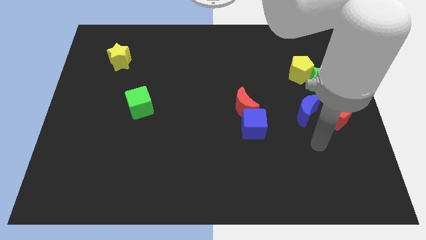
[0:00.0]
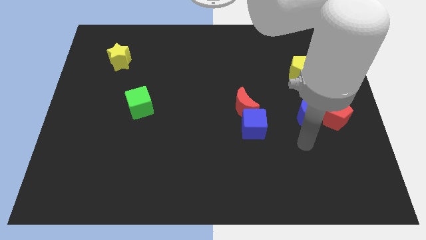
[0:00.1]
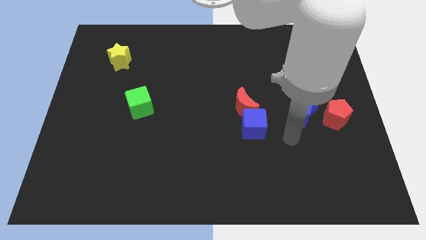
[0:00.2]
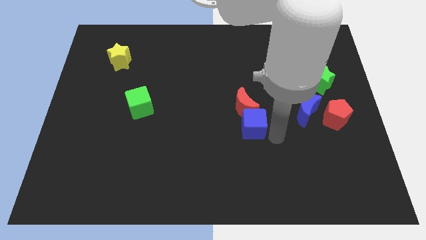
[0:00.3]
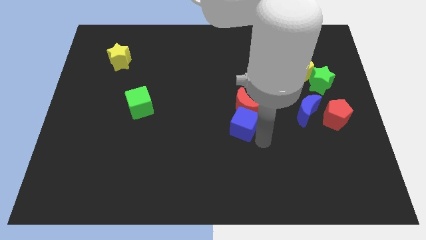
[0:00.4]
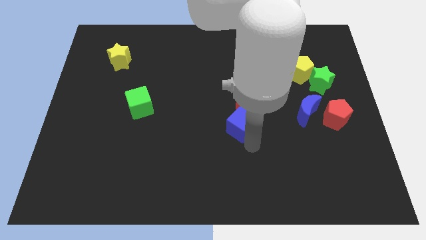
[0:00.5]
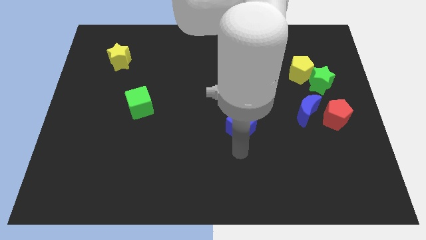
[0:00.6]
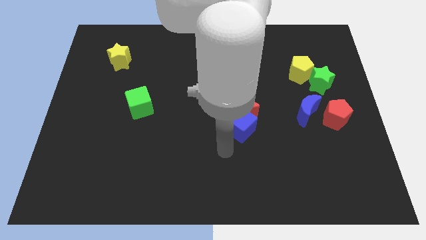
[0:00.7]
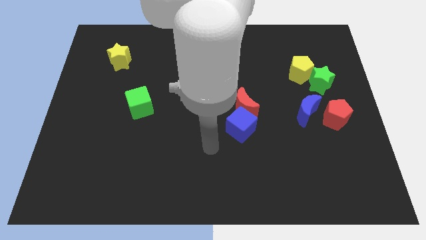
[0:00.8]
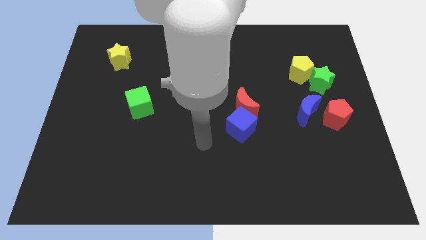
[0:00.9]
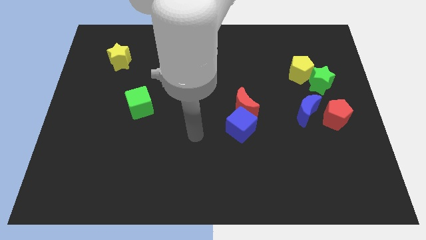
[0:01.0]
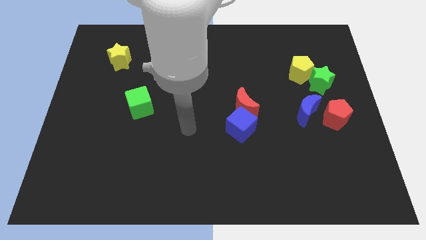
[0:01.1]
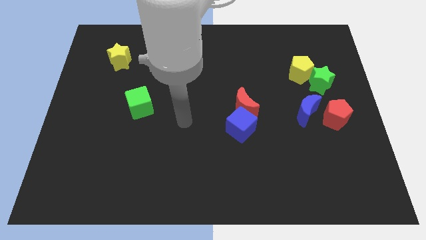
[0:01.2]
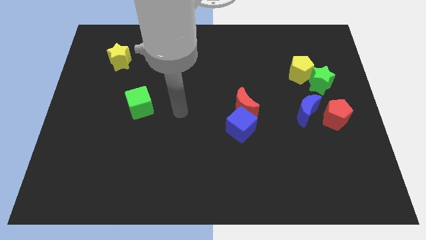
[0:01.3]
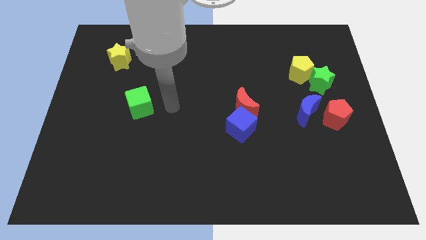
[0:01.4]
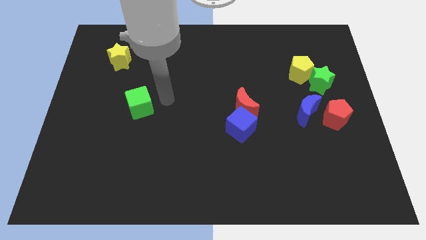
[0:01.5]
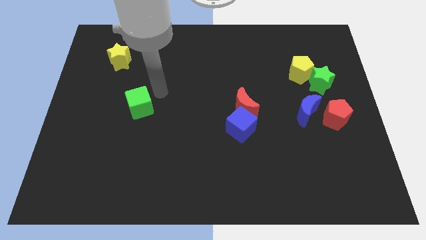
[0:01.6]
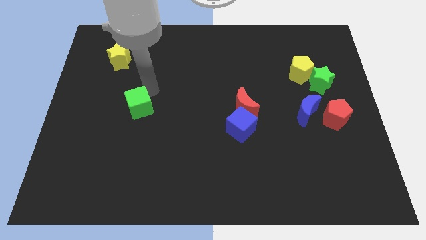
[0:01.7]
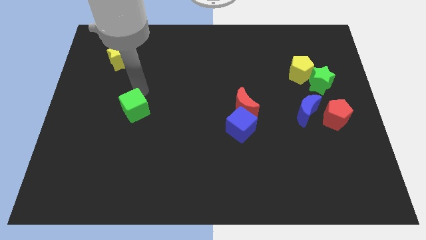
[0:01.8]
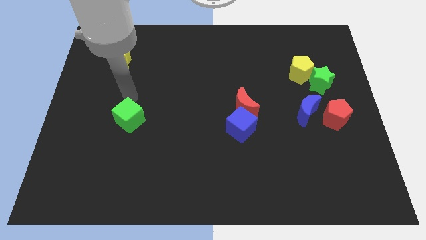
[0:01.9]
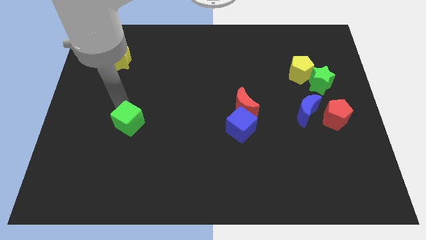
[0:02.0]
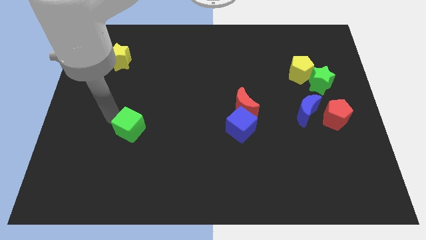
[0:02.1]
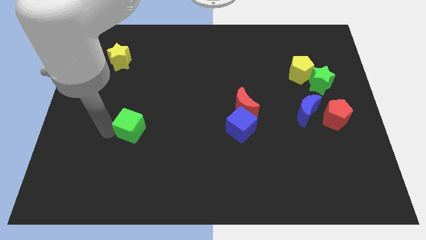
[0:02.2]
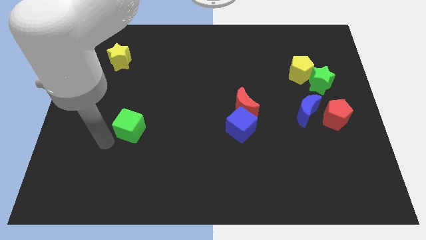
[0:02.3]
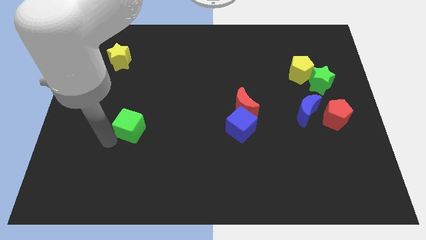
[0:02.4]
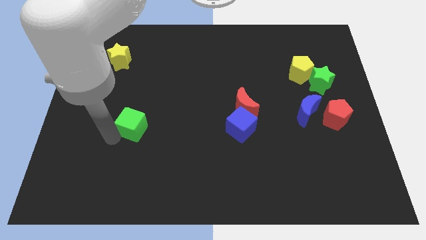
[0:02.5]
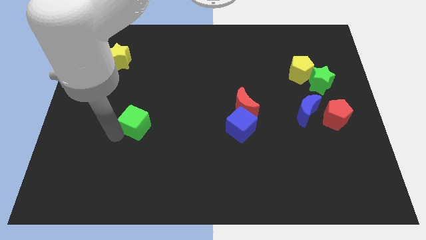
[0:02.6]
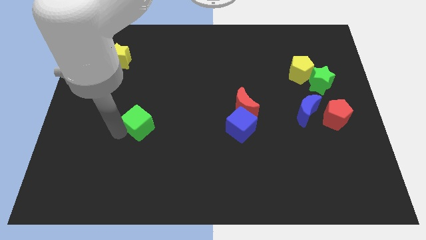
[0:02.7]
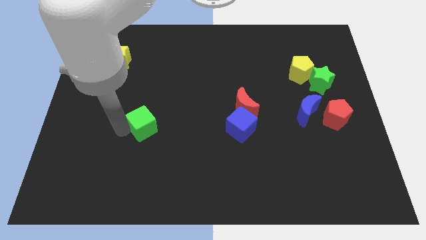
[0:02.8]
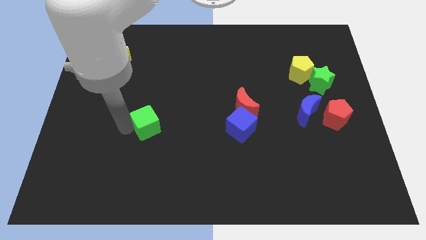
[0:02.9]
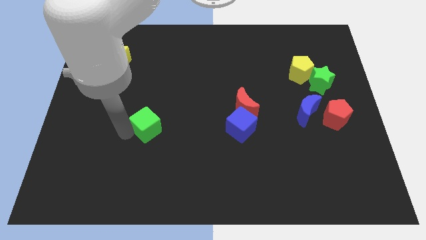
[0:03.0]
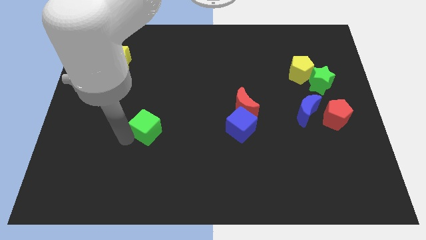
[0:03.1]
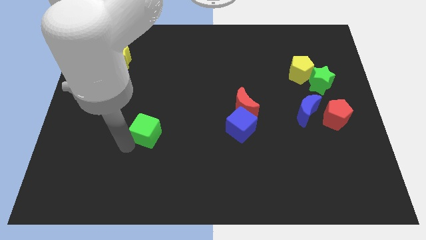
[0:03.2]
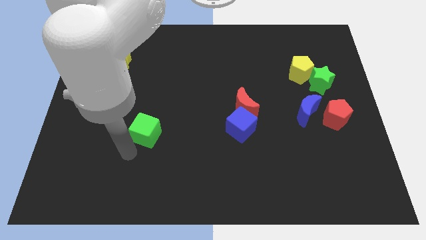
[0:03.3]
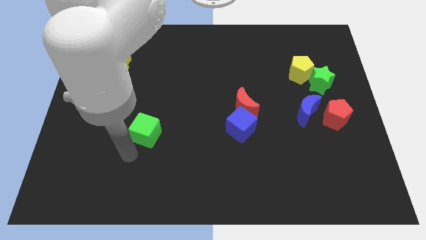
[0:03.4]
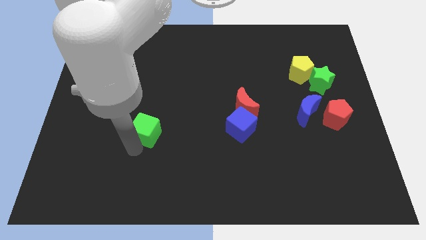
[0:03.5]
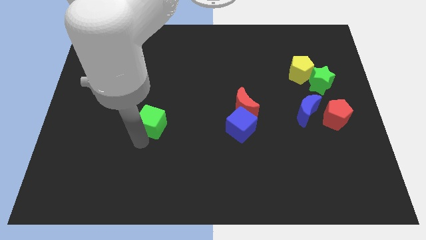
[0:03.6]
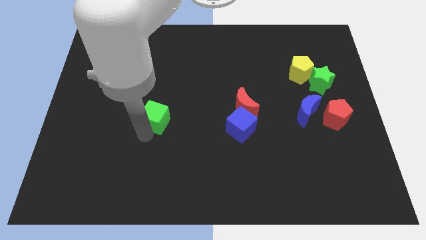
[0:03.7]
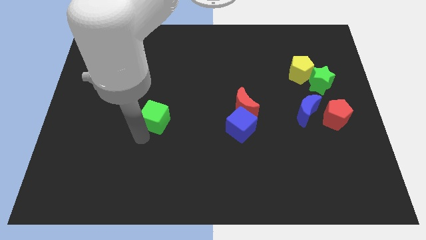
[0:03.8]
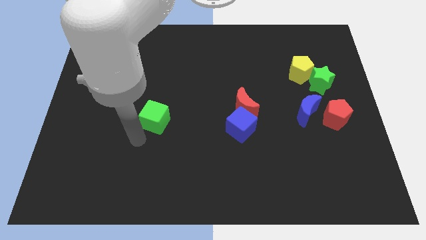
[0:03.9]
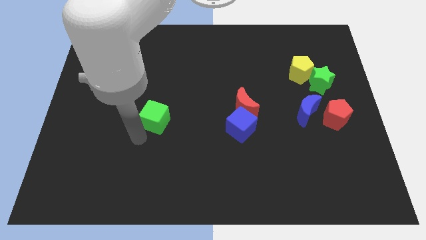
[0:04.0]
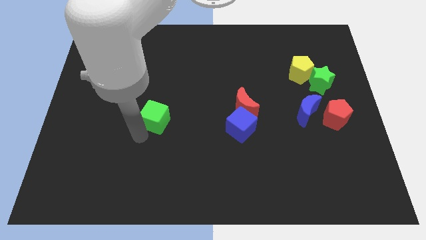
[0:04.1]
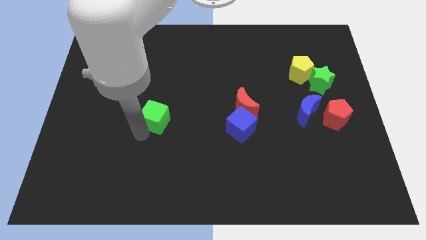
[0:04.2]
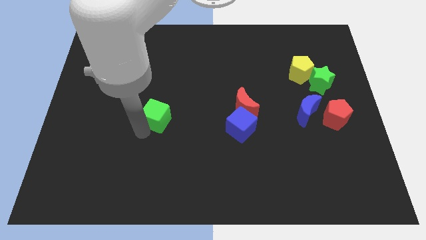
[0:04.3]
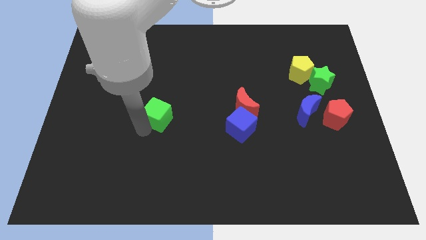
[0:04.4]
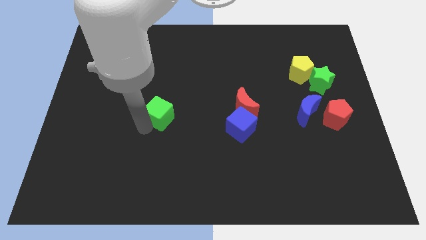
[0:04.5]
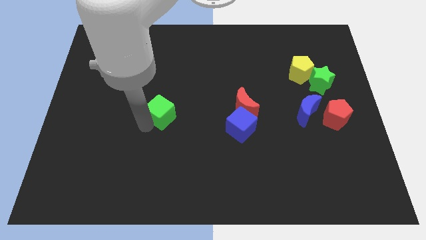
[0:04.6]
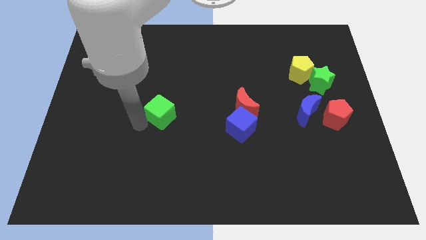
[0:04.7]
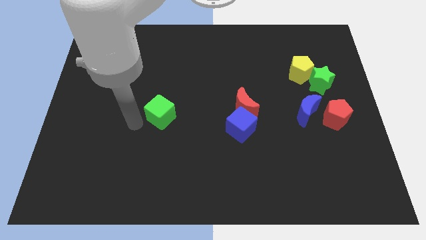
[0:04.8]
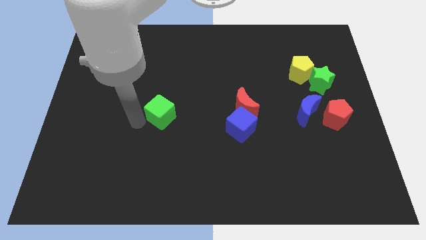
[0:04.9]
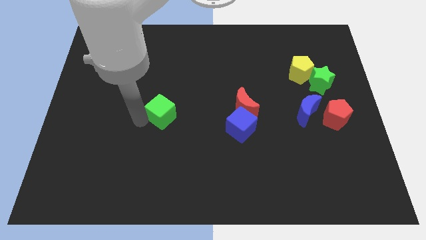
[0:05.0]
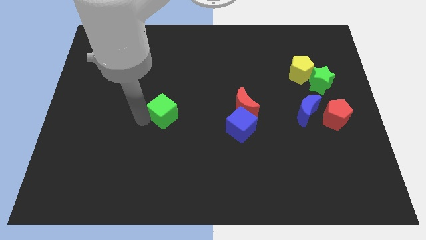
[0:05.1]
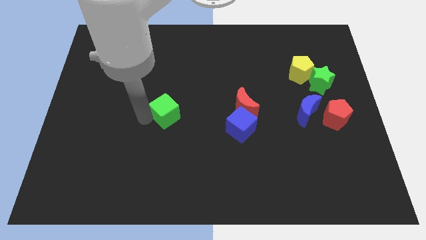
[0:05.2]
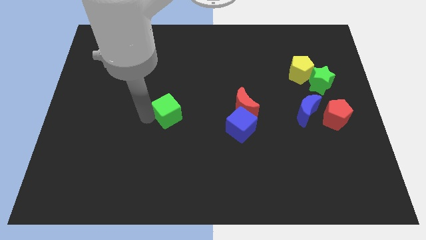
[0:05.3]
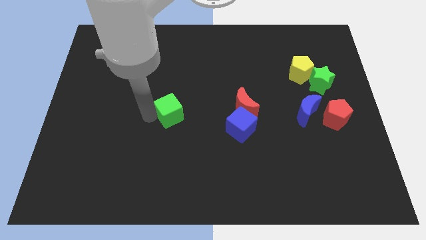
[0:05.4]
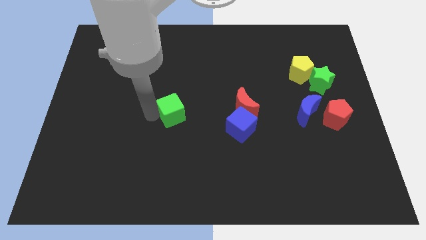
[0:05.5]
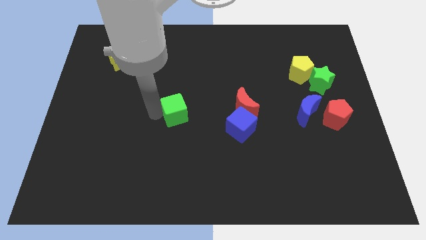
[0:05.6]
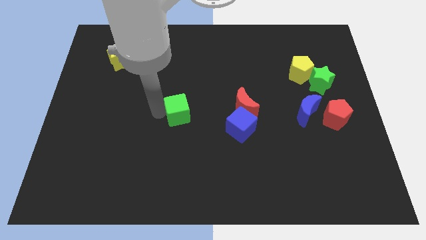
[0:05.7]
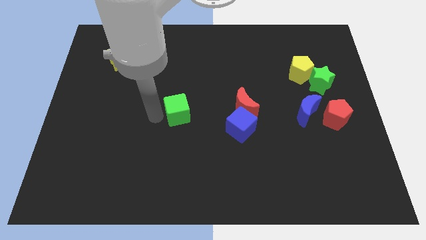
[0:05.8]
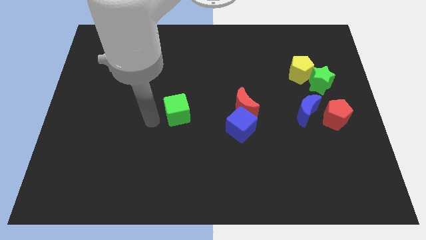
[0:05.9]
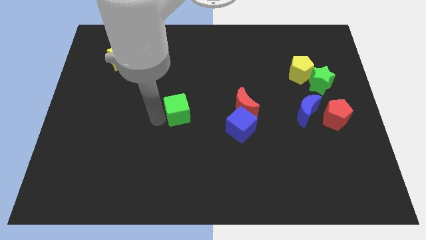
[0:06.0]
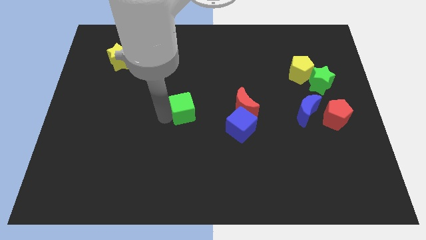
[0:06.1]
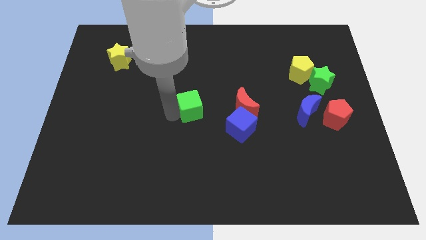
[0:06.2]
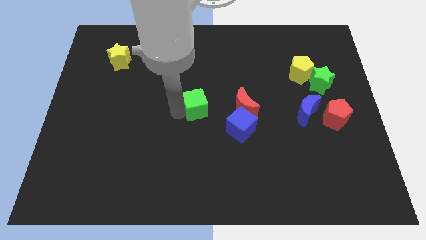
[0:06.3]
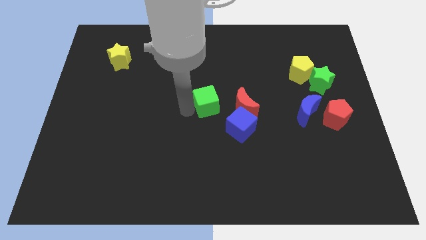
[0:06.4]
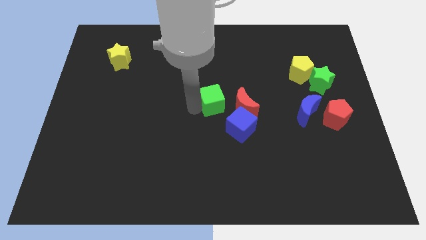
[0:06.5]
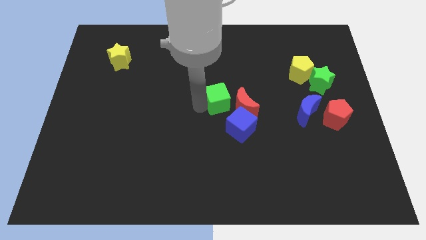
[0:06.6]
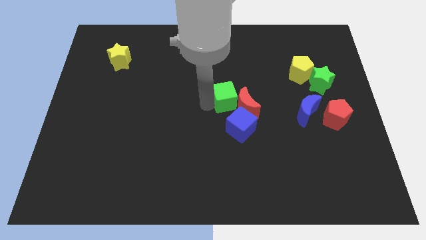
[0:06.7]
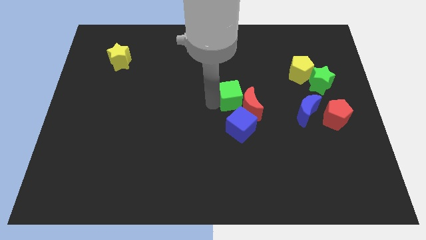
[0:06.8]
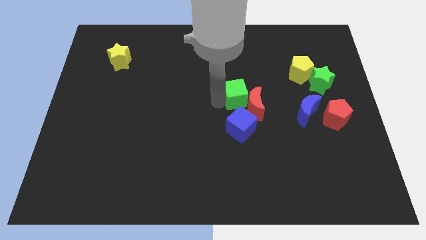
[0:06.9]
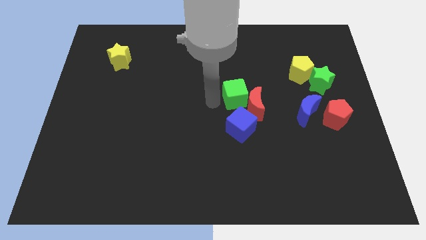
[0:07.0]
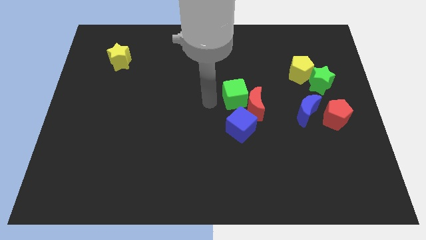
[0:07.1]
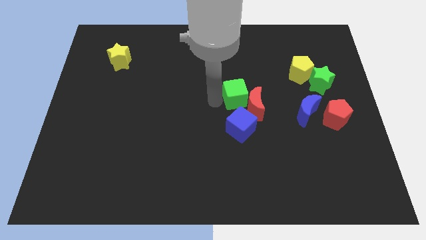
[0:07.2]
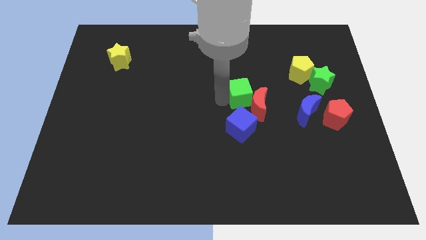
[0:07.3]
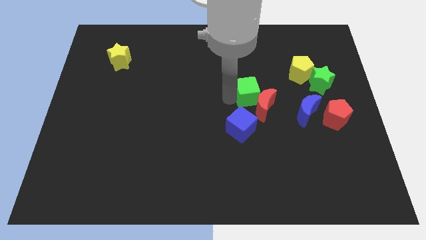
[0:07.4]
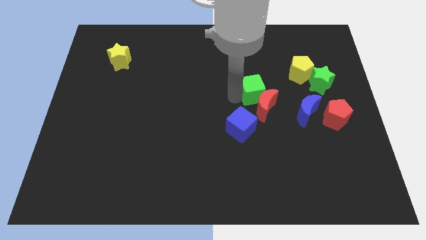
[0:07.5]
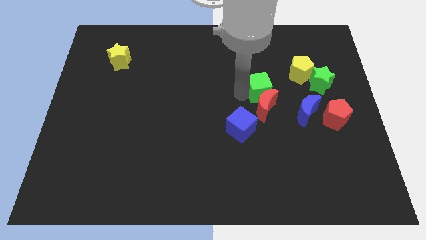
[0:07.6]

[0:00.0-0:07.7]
slide the green cube to the top left side of the blue moon
